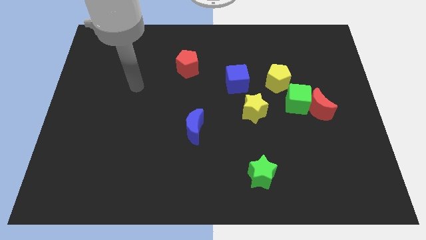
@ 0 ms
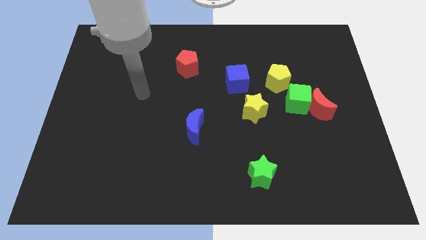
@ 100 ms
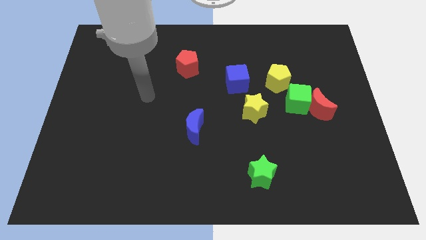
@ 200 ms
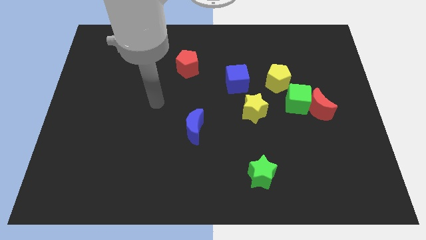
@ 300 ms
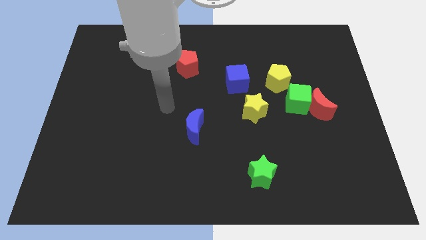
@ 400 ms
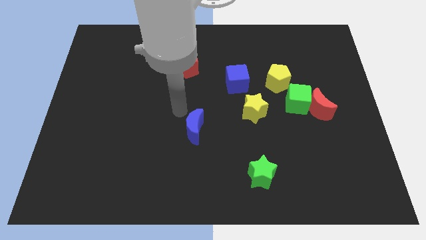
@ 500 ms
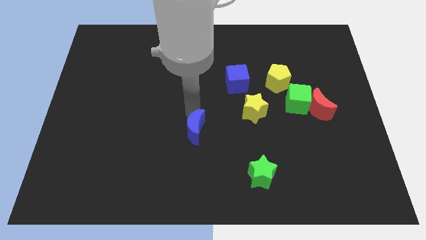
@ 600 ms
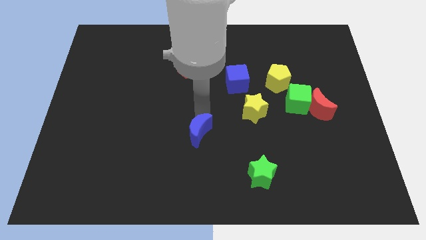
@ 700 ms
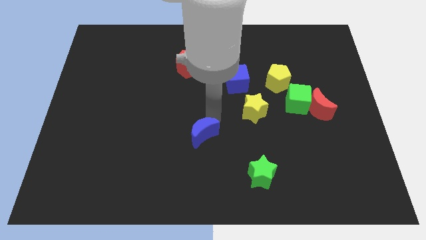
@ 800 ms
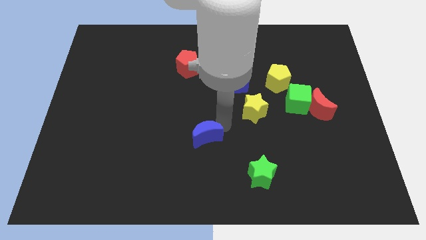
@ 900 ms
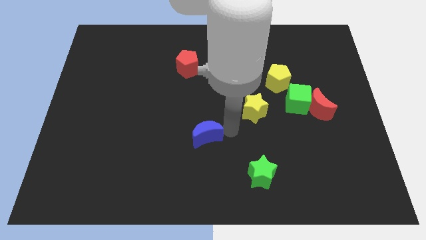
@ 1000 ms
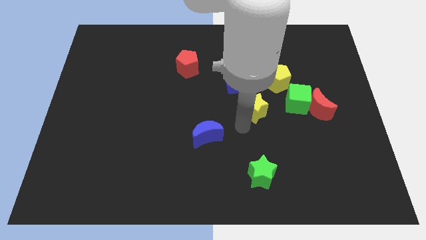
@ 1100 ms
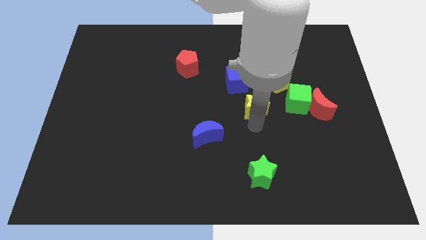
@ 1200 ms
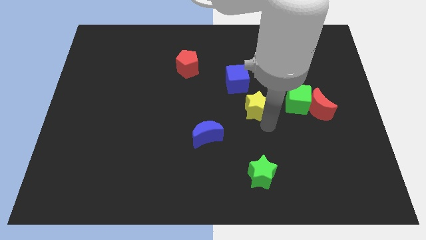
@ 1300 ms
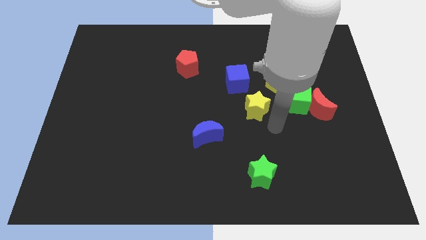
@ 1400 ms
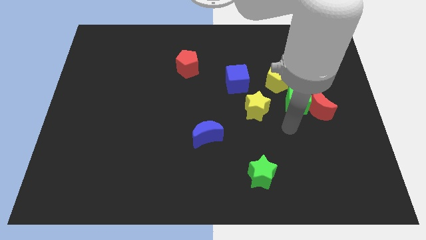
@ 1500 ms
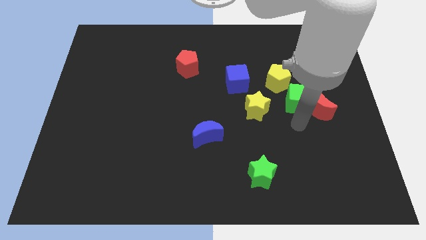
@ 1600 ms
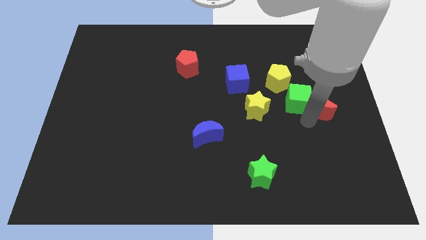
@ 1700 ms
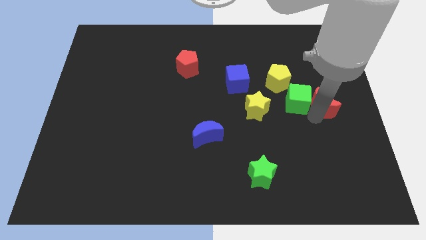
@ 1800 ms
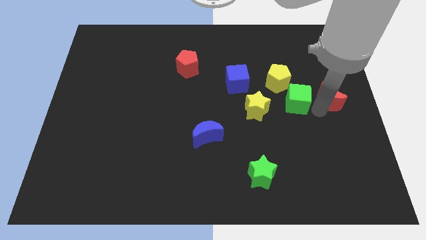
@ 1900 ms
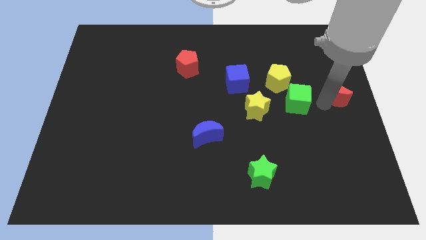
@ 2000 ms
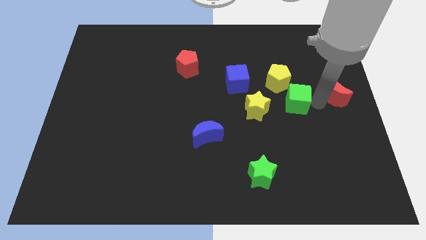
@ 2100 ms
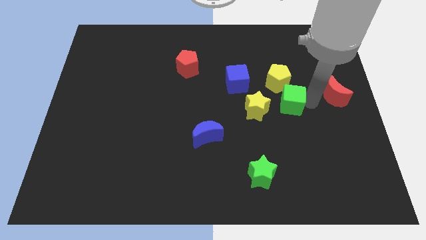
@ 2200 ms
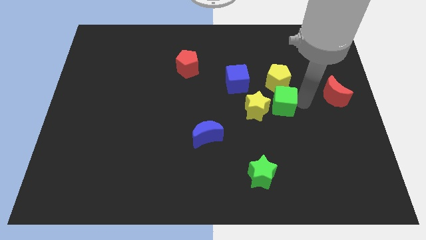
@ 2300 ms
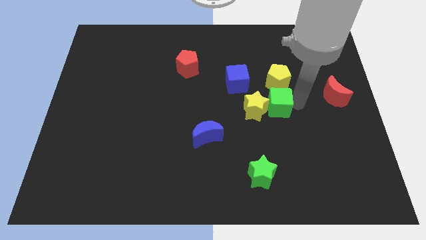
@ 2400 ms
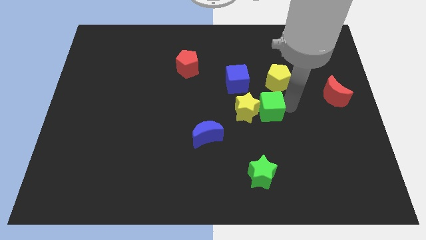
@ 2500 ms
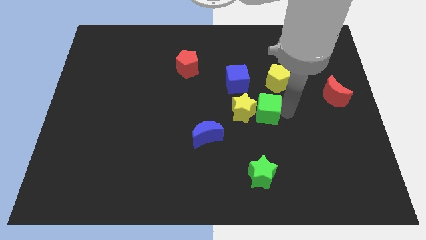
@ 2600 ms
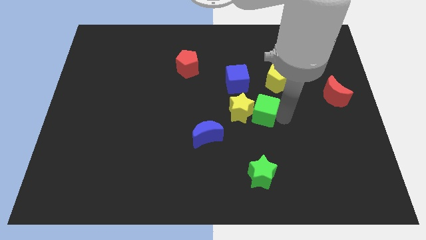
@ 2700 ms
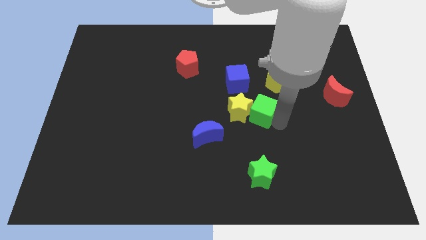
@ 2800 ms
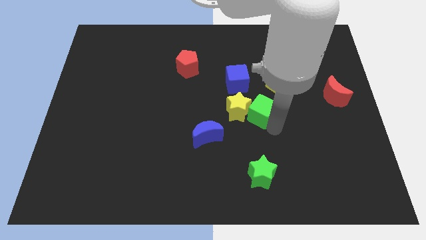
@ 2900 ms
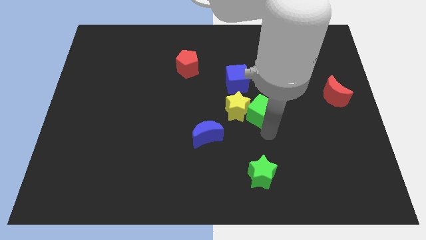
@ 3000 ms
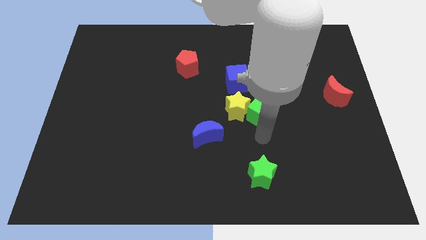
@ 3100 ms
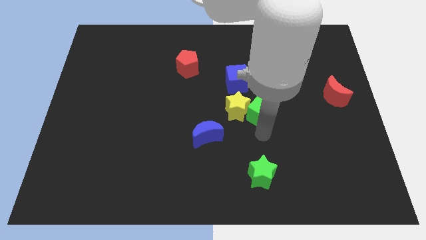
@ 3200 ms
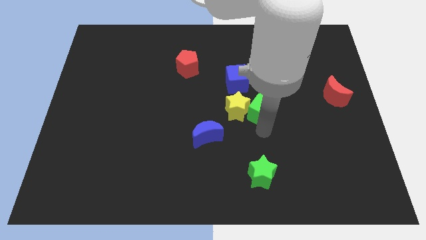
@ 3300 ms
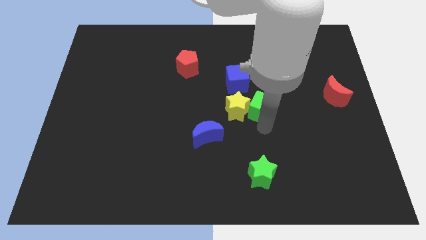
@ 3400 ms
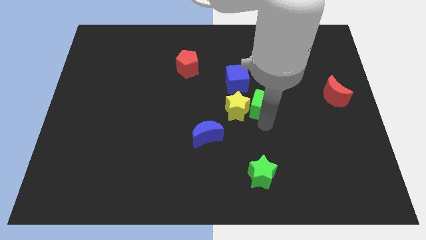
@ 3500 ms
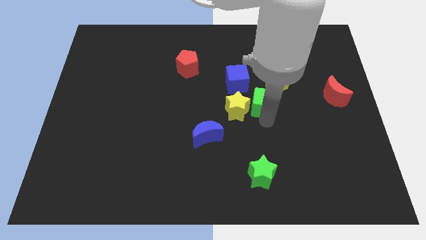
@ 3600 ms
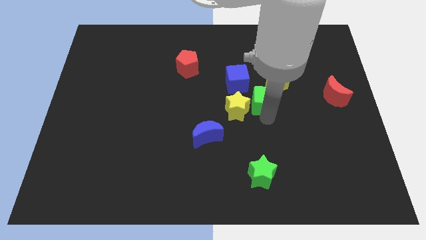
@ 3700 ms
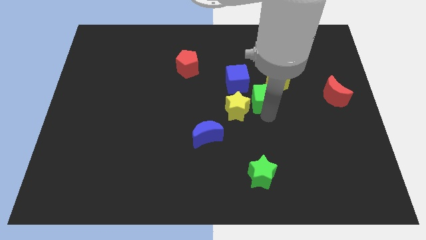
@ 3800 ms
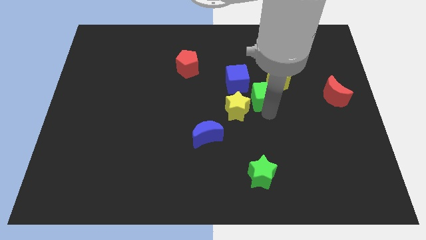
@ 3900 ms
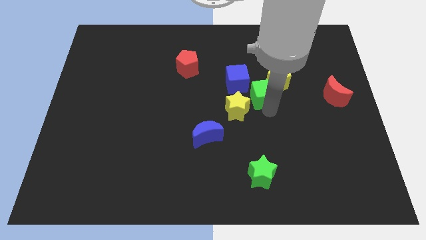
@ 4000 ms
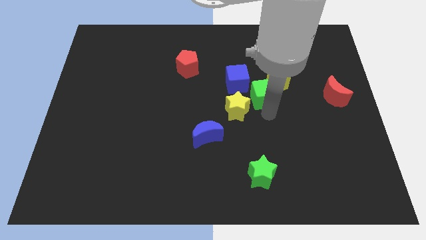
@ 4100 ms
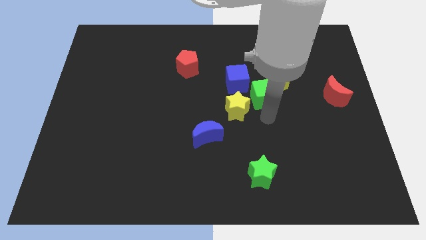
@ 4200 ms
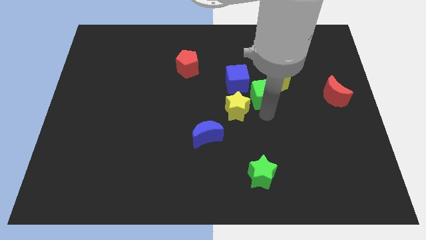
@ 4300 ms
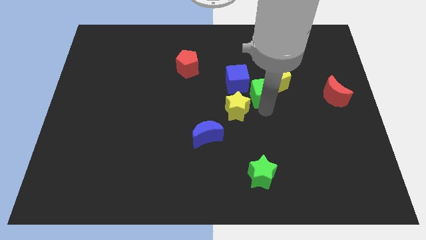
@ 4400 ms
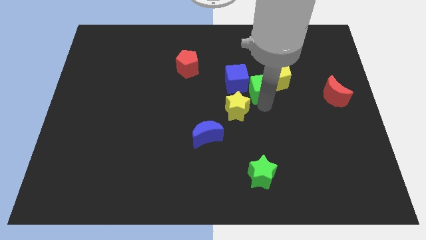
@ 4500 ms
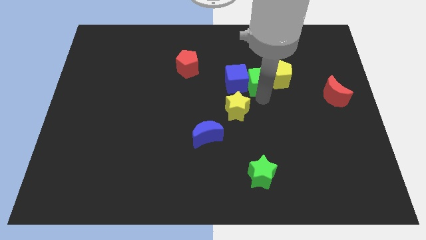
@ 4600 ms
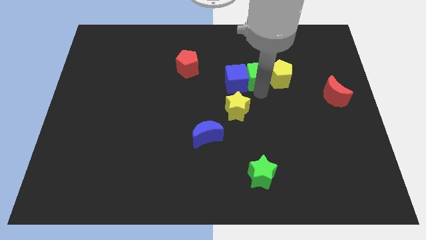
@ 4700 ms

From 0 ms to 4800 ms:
push the green cube to the top left of the yellow pentagon

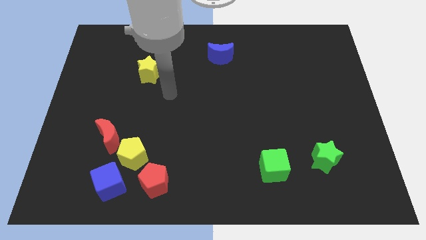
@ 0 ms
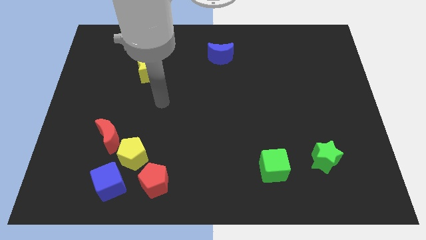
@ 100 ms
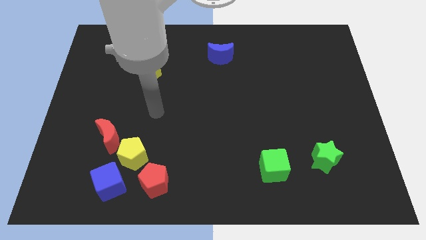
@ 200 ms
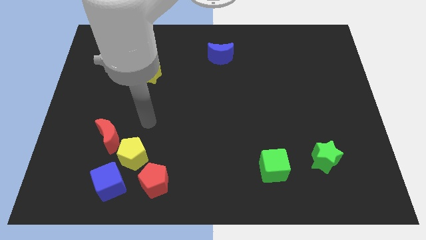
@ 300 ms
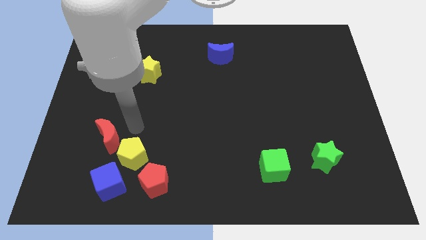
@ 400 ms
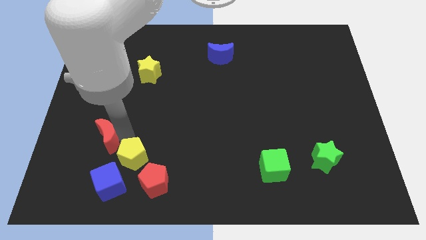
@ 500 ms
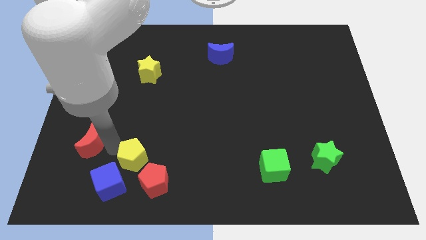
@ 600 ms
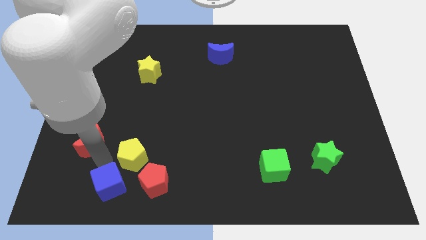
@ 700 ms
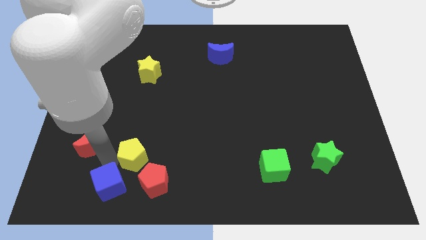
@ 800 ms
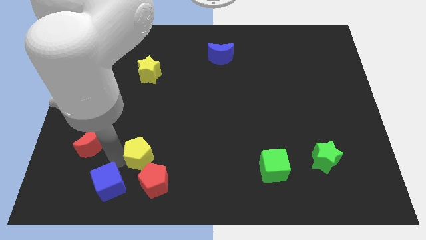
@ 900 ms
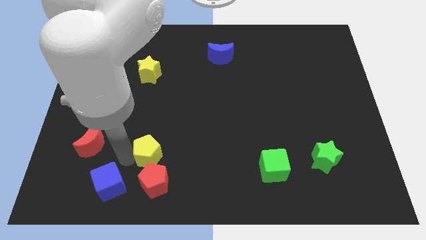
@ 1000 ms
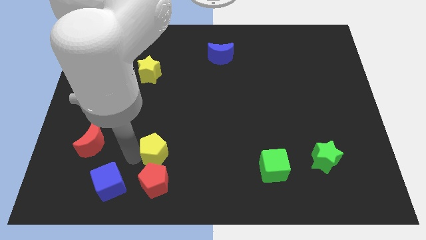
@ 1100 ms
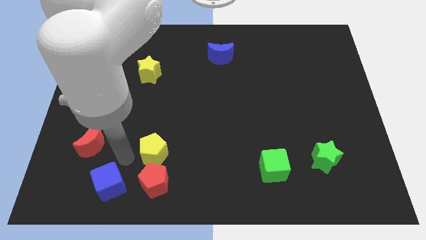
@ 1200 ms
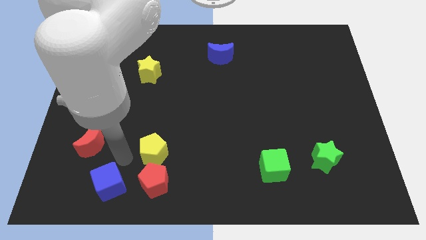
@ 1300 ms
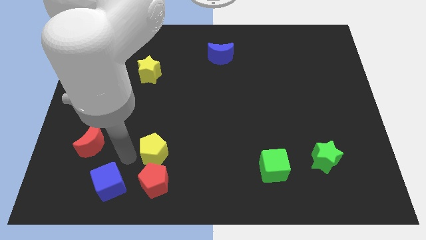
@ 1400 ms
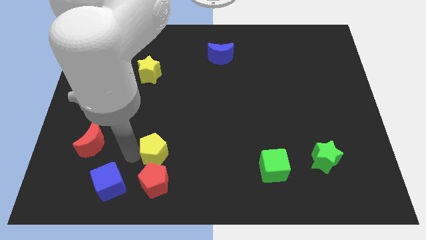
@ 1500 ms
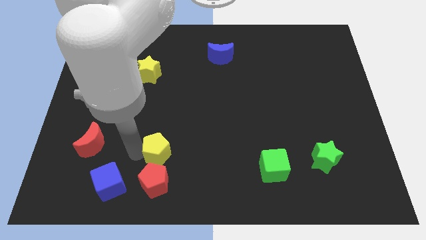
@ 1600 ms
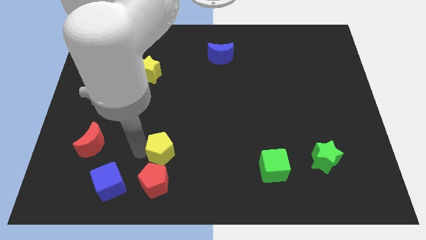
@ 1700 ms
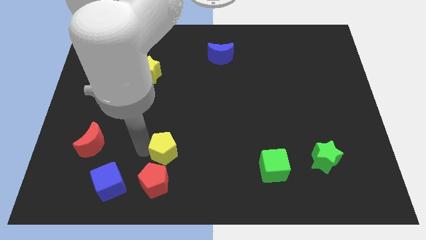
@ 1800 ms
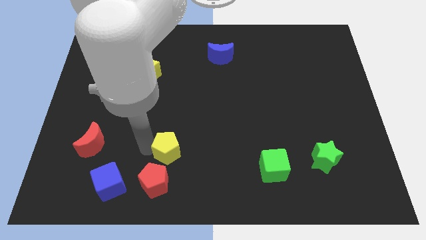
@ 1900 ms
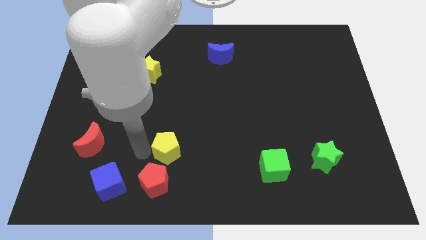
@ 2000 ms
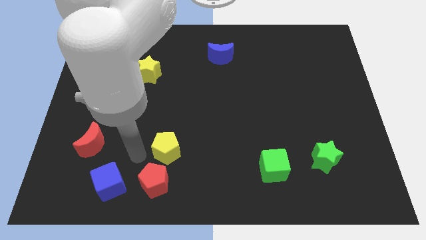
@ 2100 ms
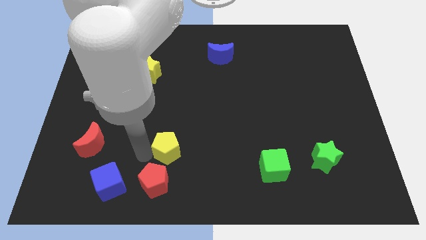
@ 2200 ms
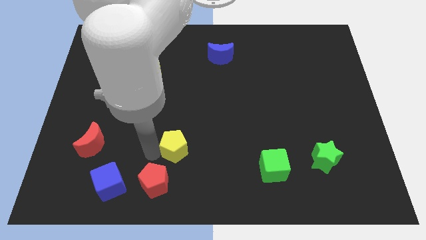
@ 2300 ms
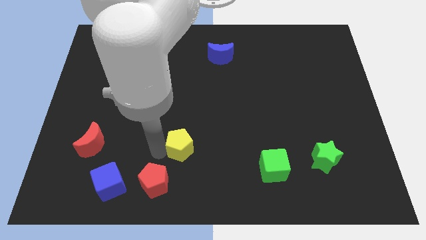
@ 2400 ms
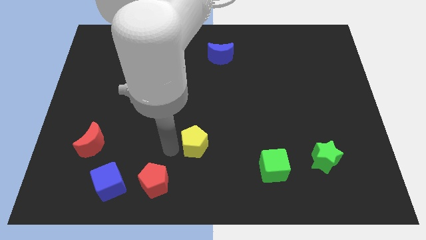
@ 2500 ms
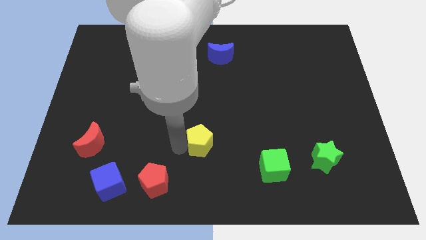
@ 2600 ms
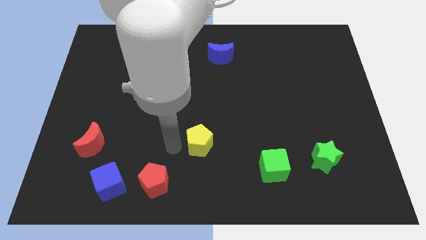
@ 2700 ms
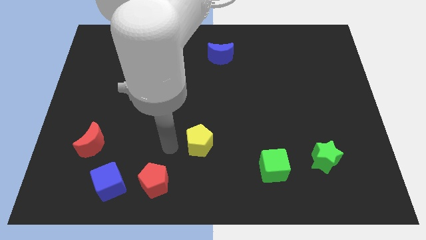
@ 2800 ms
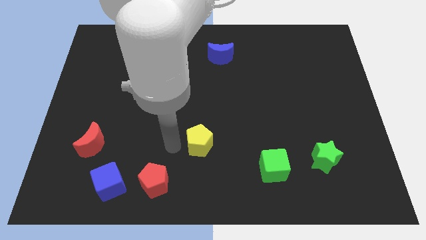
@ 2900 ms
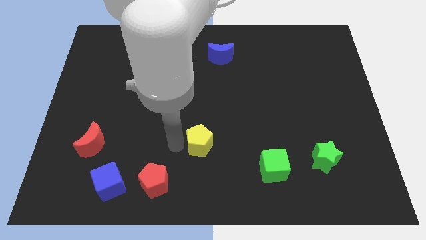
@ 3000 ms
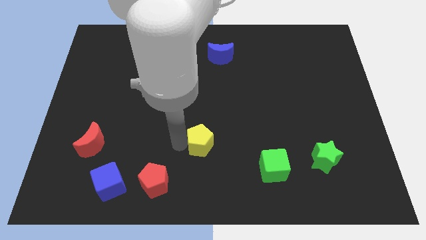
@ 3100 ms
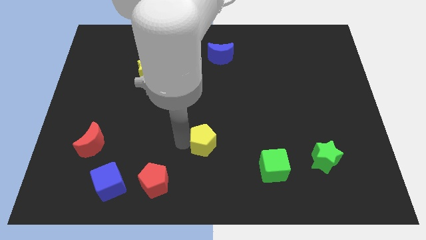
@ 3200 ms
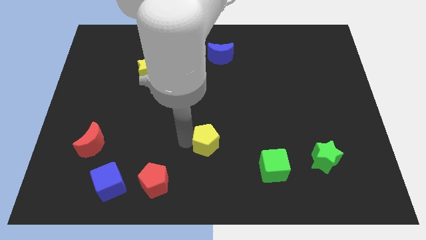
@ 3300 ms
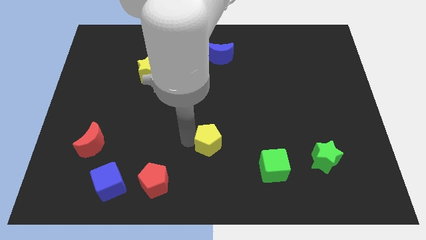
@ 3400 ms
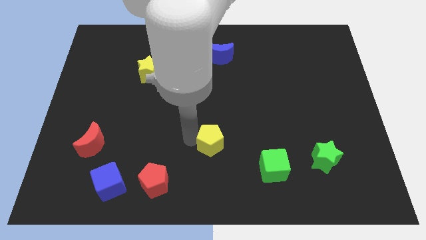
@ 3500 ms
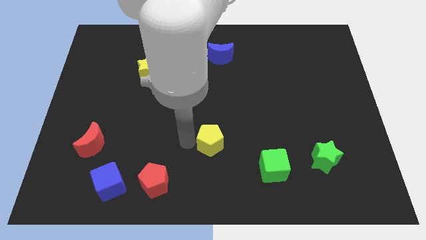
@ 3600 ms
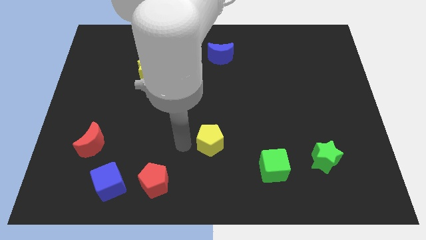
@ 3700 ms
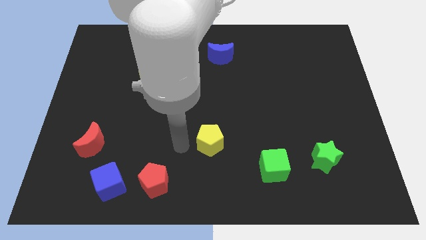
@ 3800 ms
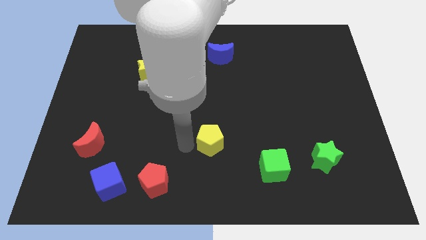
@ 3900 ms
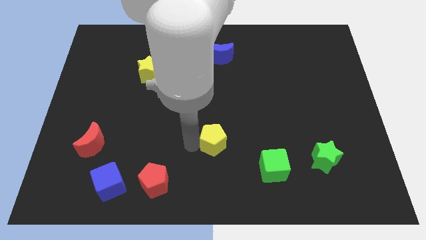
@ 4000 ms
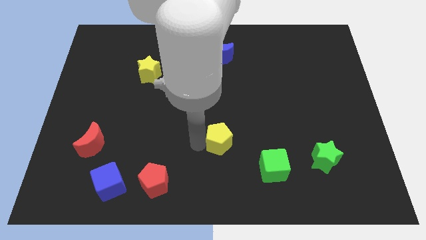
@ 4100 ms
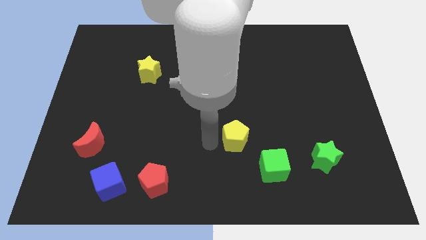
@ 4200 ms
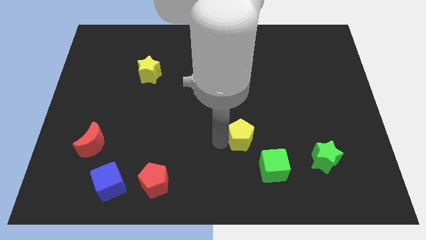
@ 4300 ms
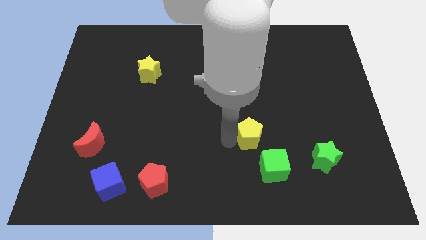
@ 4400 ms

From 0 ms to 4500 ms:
put the yellow pentagon to the top side of the green cube
